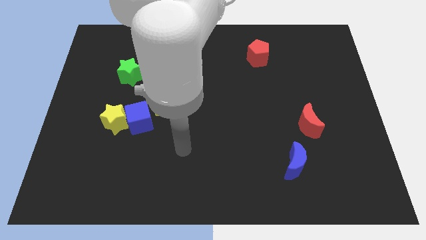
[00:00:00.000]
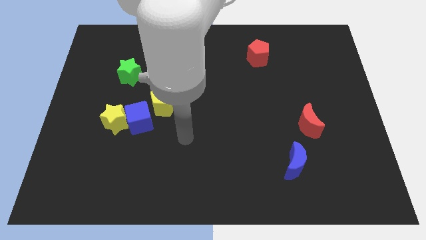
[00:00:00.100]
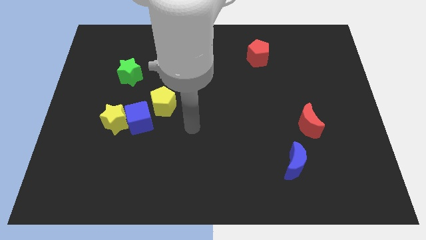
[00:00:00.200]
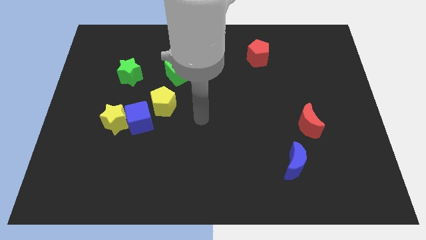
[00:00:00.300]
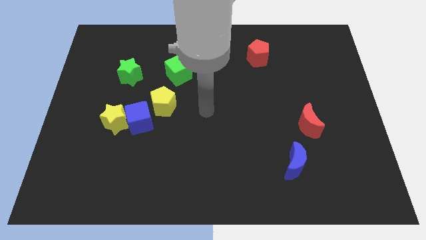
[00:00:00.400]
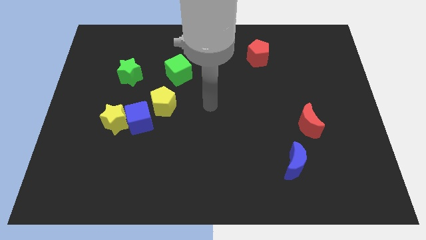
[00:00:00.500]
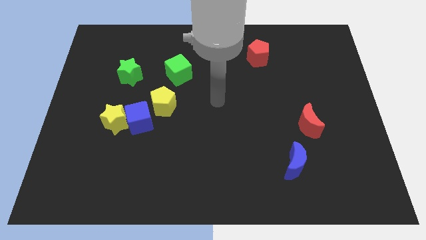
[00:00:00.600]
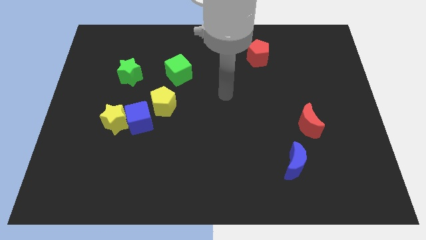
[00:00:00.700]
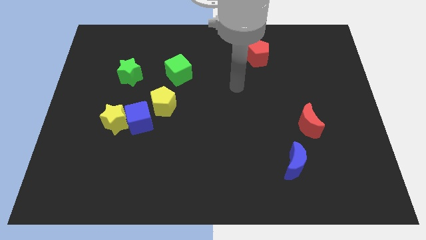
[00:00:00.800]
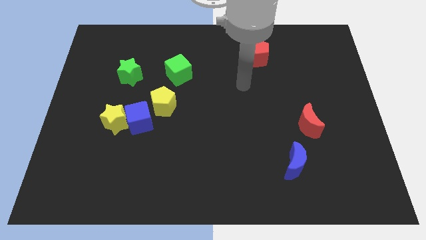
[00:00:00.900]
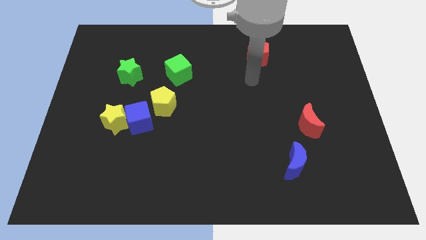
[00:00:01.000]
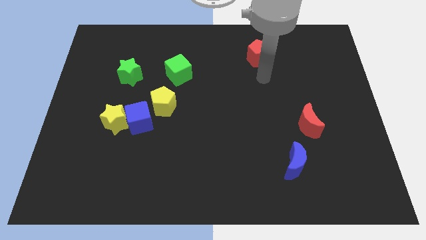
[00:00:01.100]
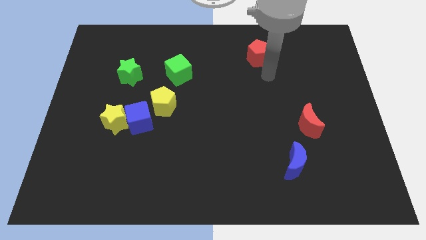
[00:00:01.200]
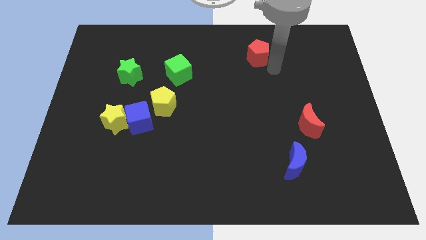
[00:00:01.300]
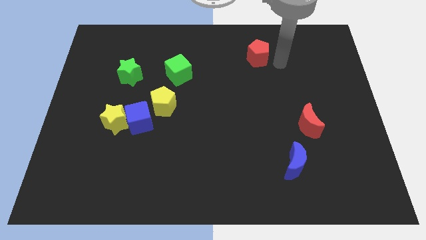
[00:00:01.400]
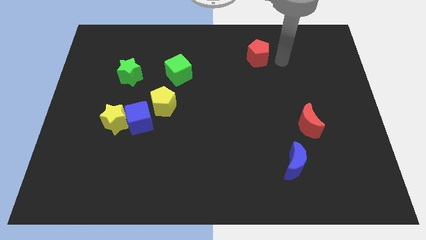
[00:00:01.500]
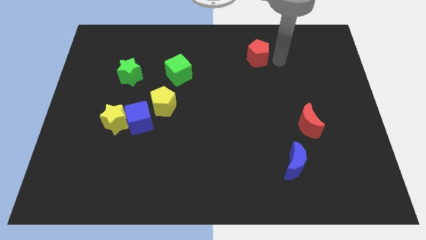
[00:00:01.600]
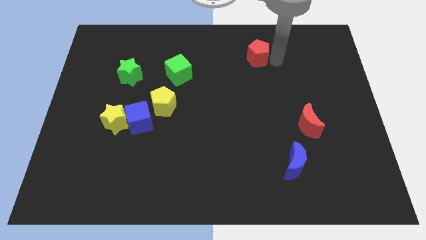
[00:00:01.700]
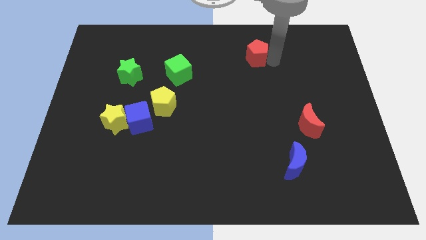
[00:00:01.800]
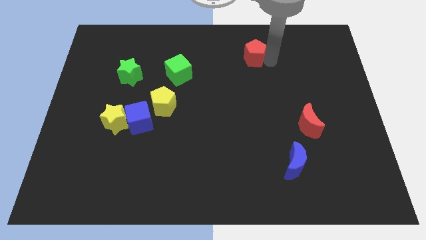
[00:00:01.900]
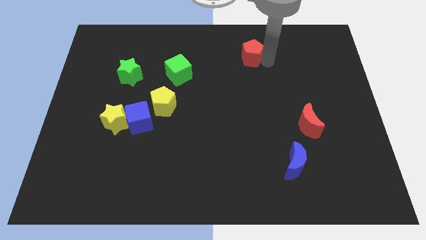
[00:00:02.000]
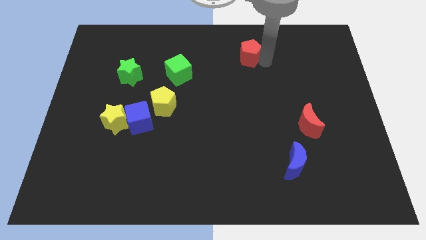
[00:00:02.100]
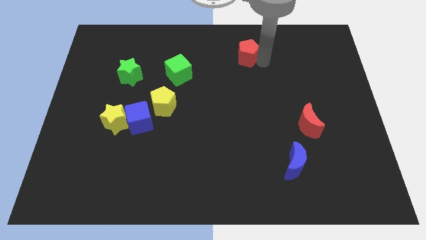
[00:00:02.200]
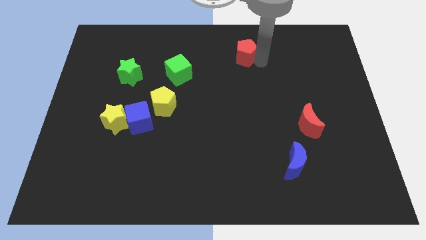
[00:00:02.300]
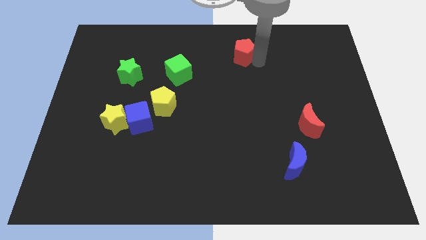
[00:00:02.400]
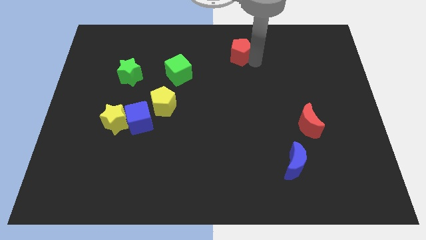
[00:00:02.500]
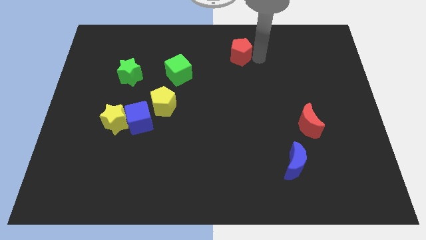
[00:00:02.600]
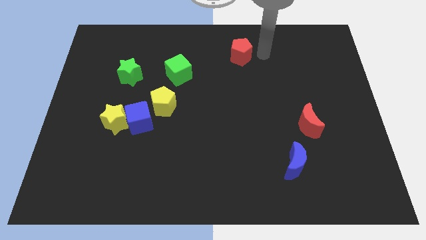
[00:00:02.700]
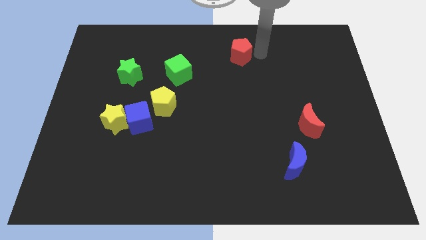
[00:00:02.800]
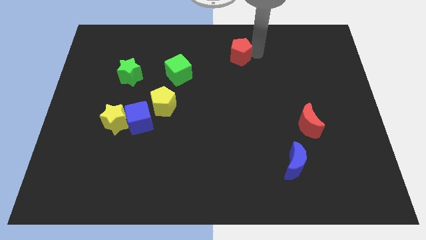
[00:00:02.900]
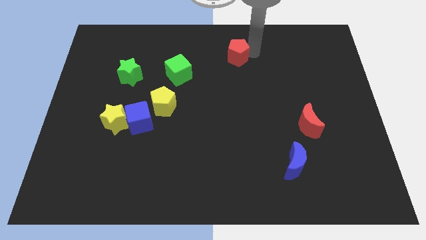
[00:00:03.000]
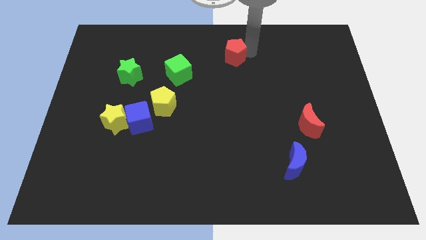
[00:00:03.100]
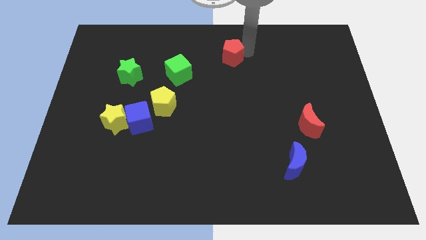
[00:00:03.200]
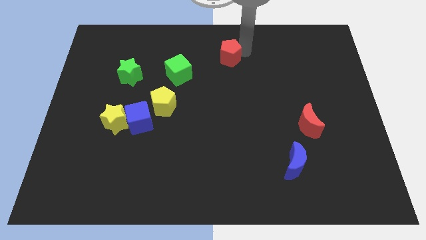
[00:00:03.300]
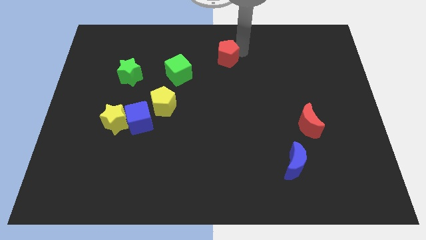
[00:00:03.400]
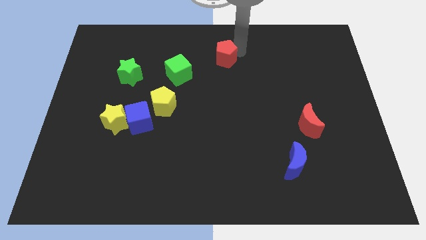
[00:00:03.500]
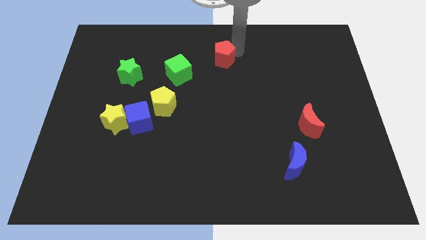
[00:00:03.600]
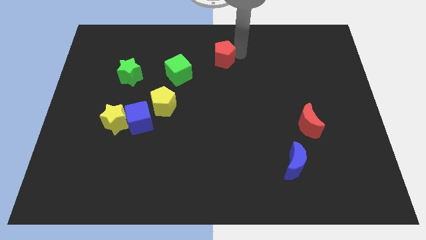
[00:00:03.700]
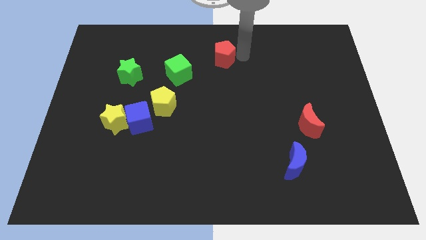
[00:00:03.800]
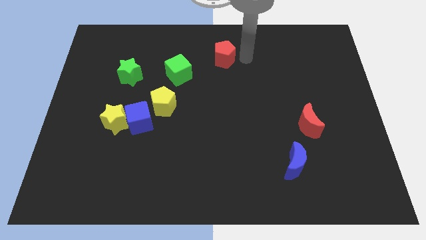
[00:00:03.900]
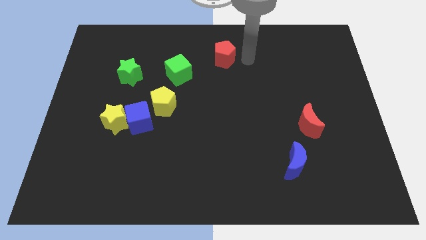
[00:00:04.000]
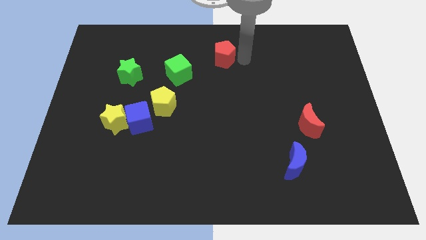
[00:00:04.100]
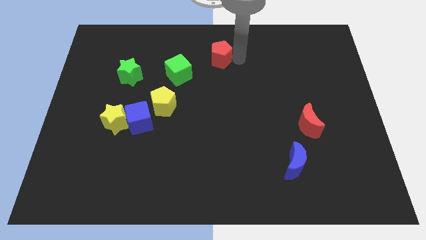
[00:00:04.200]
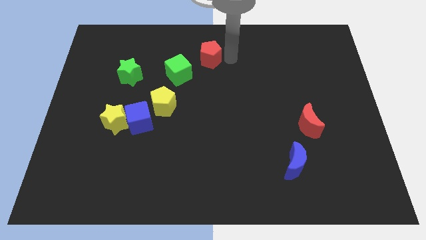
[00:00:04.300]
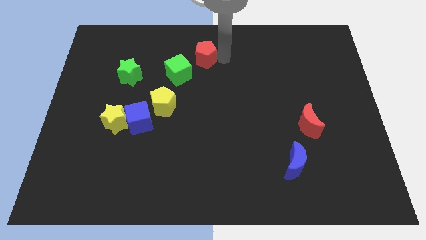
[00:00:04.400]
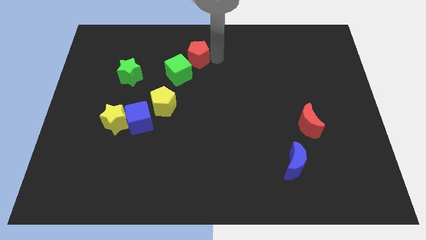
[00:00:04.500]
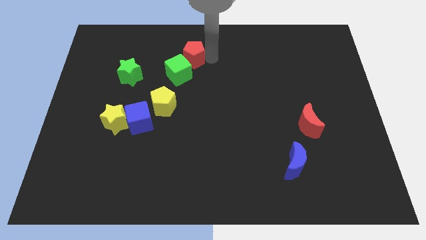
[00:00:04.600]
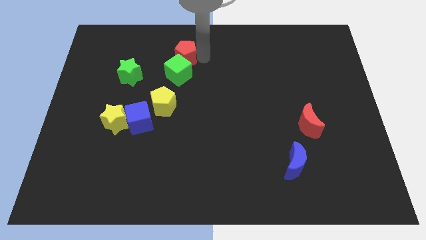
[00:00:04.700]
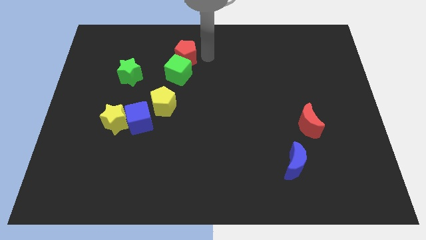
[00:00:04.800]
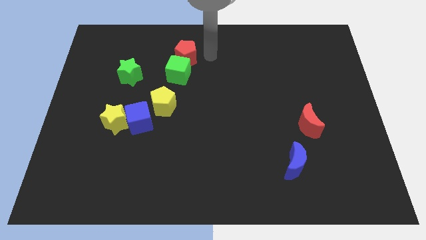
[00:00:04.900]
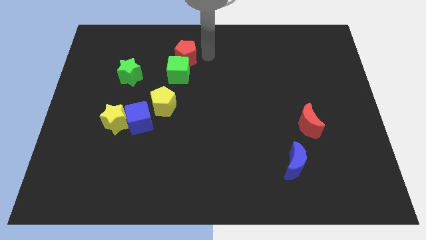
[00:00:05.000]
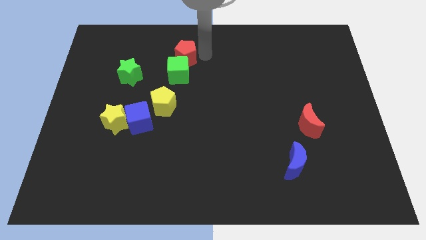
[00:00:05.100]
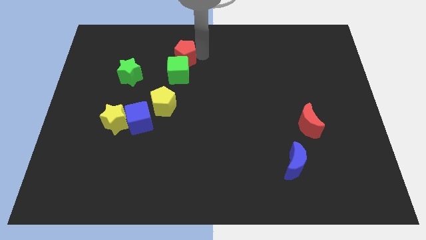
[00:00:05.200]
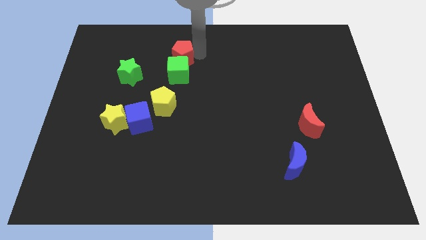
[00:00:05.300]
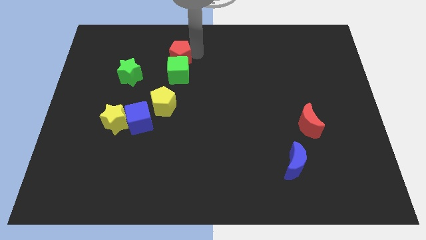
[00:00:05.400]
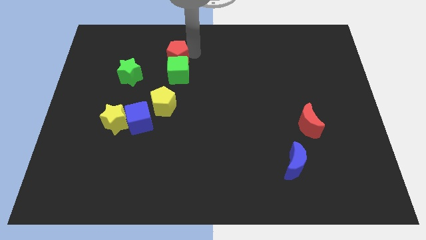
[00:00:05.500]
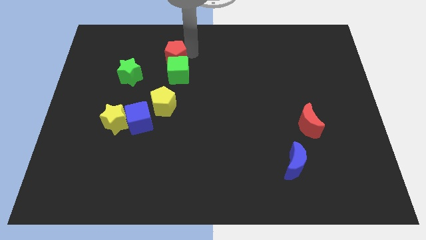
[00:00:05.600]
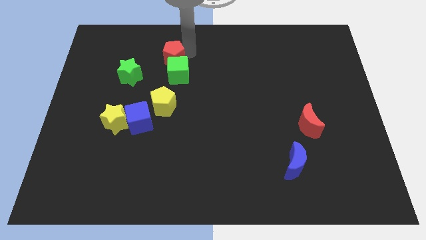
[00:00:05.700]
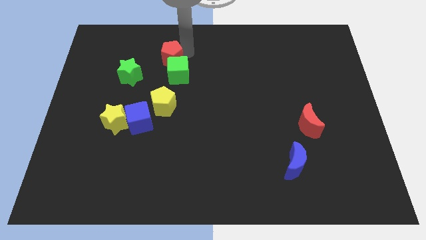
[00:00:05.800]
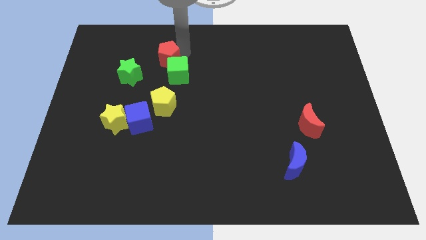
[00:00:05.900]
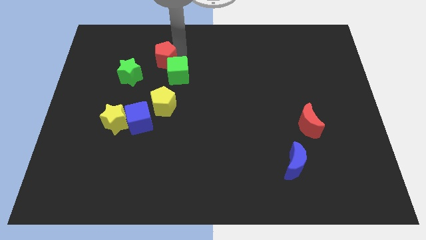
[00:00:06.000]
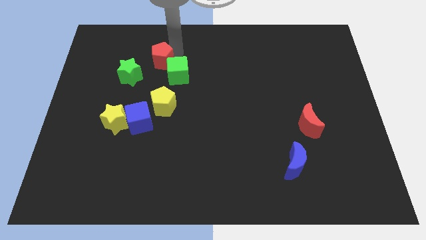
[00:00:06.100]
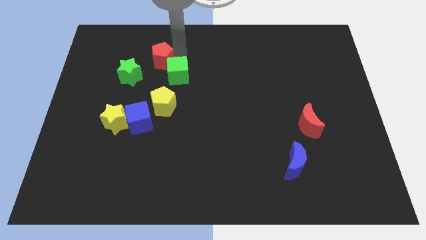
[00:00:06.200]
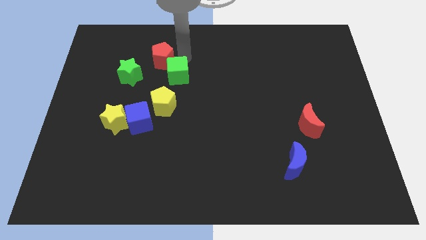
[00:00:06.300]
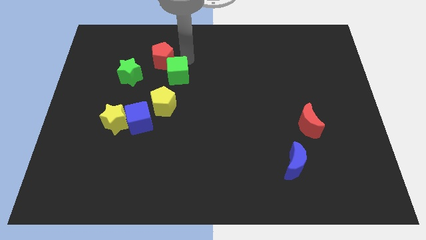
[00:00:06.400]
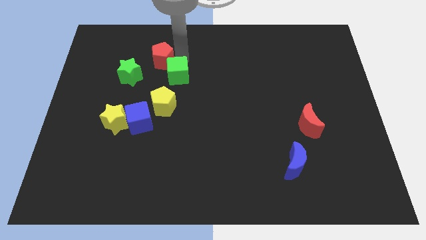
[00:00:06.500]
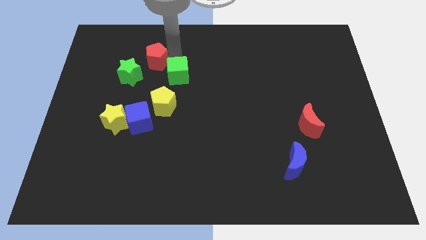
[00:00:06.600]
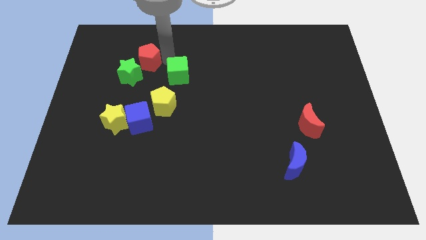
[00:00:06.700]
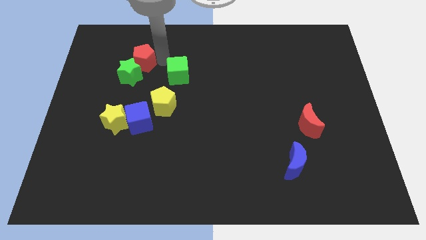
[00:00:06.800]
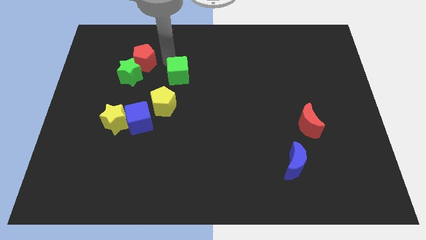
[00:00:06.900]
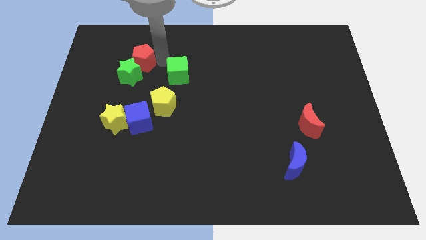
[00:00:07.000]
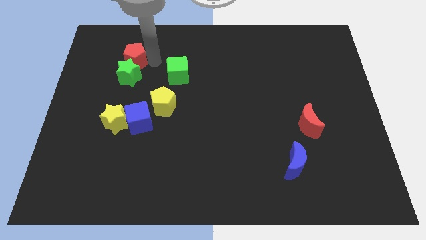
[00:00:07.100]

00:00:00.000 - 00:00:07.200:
move the red pentagon to the top left side of the green star

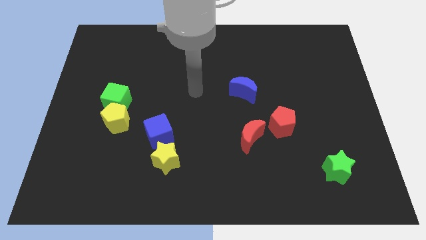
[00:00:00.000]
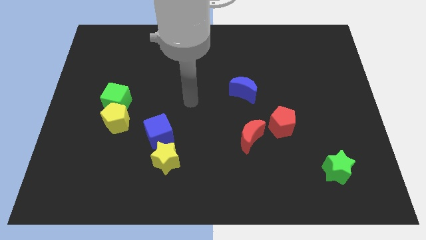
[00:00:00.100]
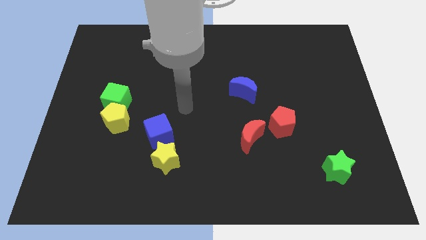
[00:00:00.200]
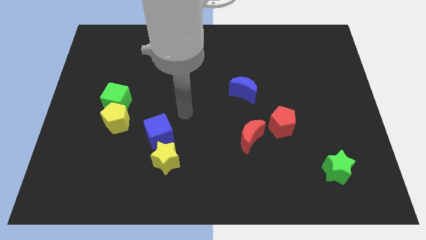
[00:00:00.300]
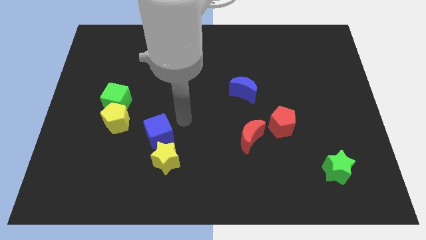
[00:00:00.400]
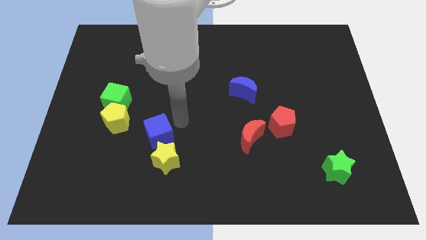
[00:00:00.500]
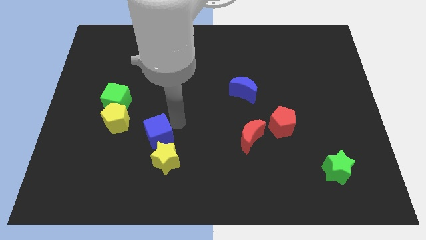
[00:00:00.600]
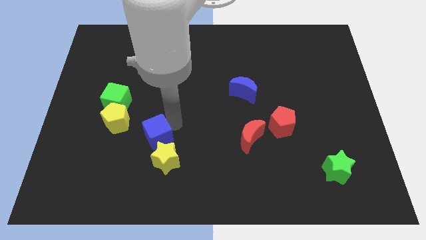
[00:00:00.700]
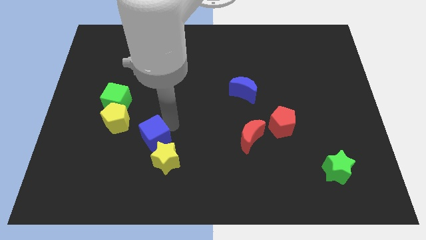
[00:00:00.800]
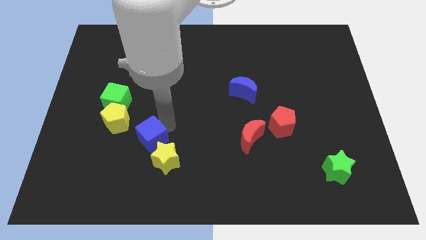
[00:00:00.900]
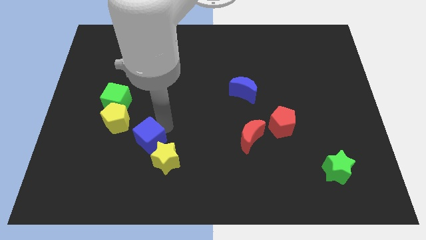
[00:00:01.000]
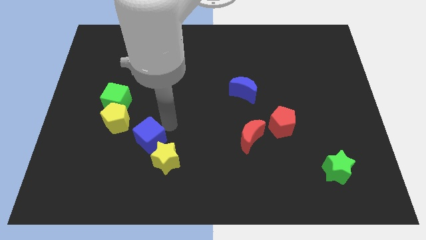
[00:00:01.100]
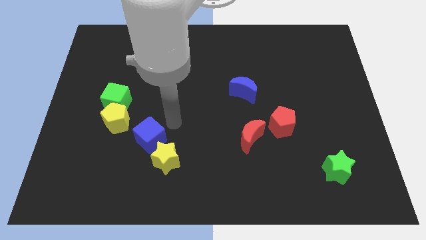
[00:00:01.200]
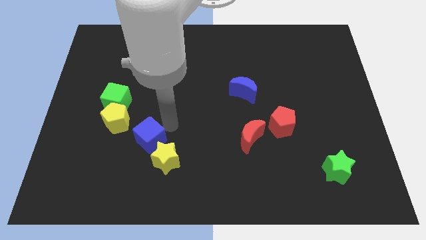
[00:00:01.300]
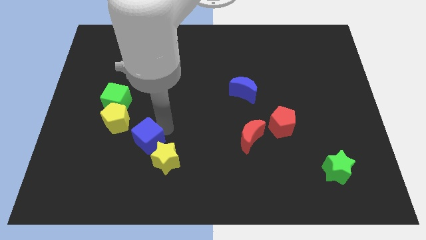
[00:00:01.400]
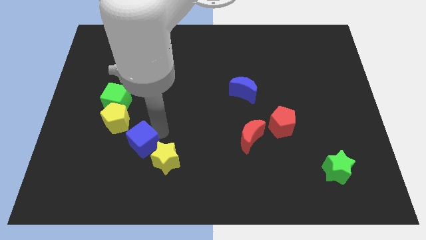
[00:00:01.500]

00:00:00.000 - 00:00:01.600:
slide the blue cube to the left of the yellow star

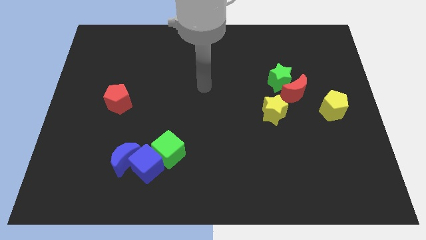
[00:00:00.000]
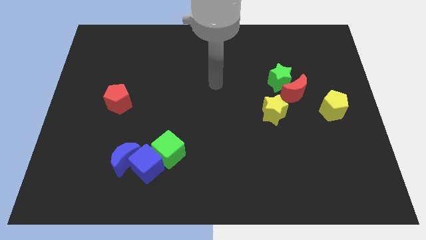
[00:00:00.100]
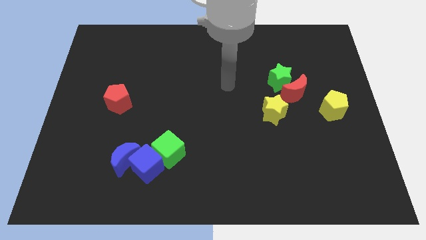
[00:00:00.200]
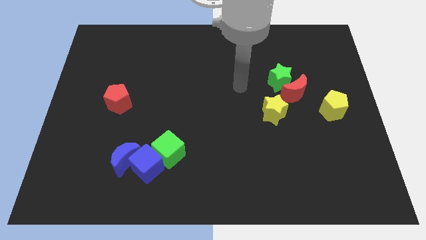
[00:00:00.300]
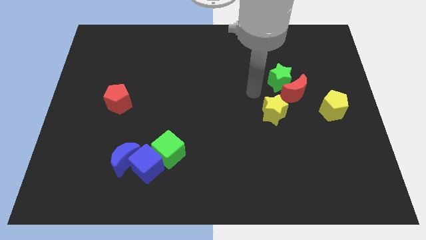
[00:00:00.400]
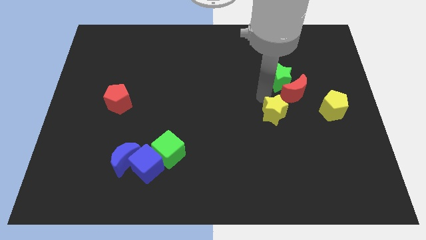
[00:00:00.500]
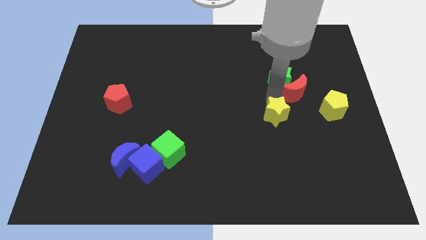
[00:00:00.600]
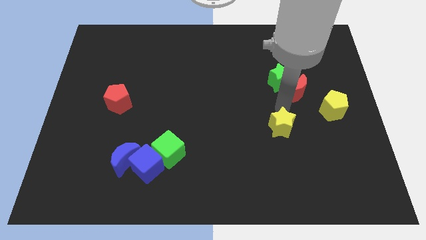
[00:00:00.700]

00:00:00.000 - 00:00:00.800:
push the red moon to the top side of the yellow star
